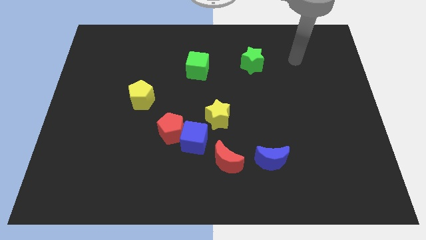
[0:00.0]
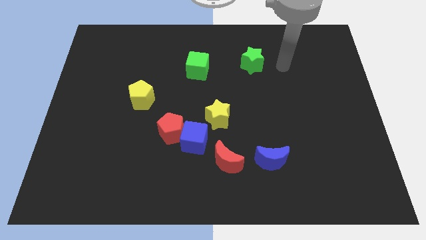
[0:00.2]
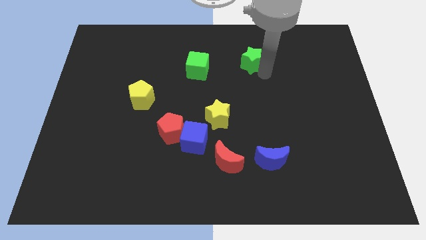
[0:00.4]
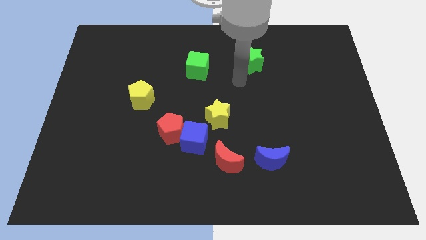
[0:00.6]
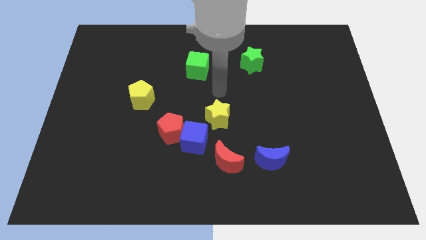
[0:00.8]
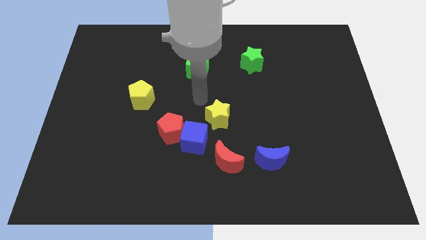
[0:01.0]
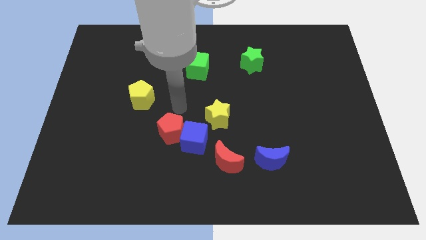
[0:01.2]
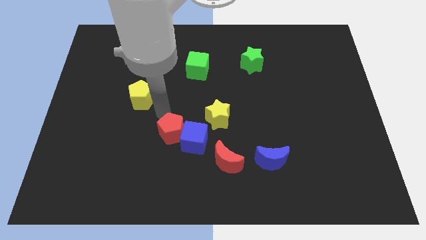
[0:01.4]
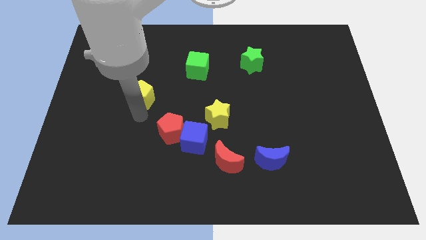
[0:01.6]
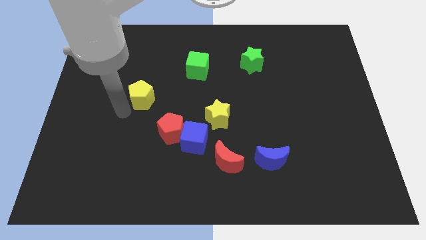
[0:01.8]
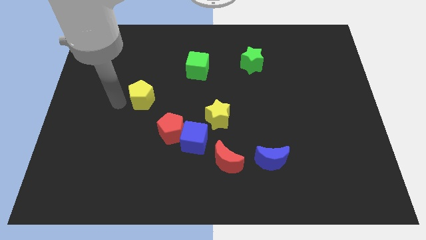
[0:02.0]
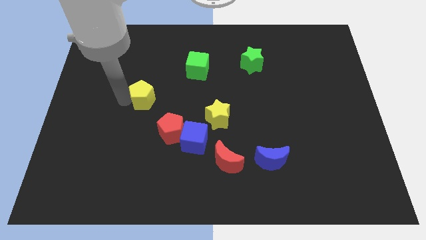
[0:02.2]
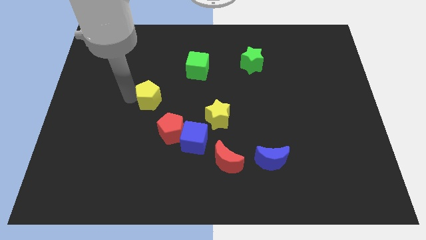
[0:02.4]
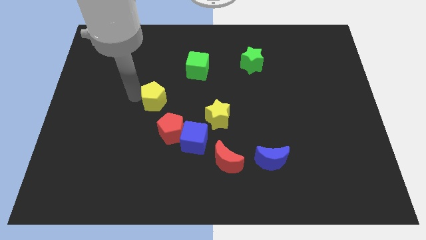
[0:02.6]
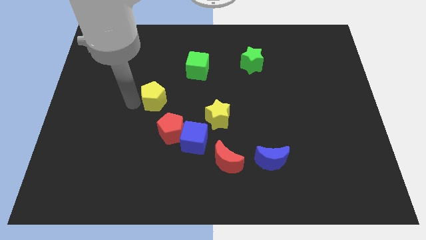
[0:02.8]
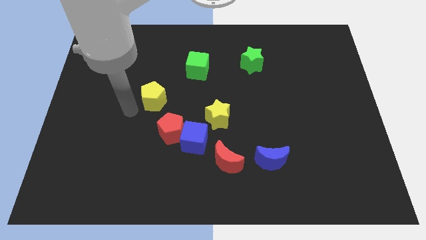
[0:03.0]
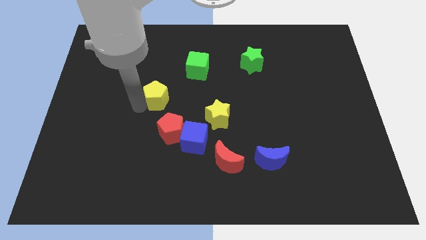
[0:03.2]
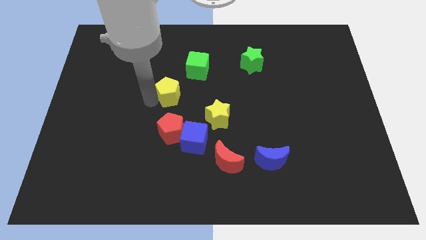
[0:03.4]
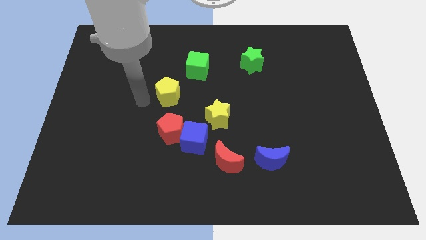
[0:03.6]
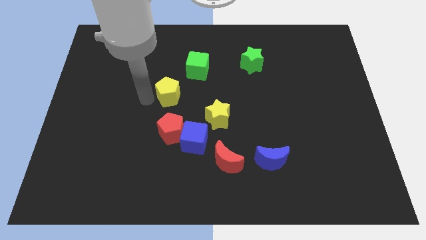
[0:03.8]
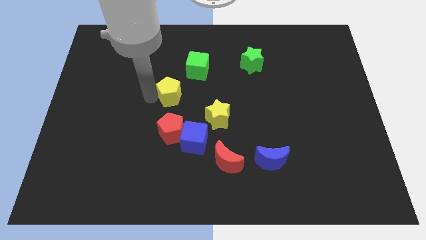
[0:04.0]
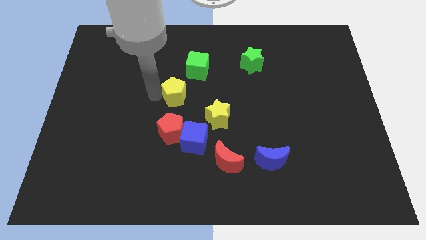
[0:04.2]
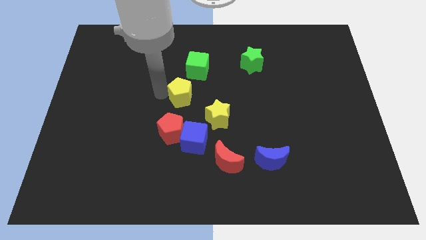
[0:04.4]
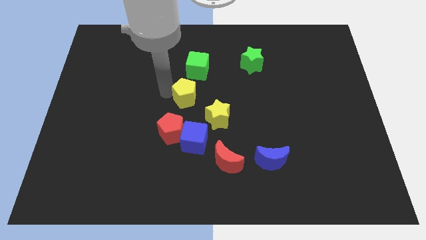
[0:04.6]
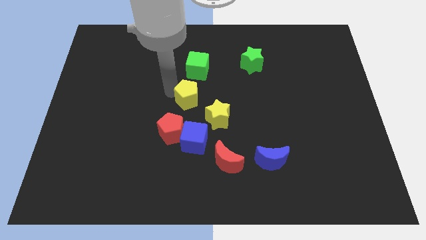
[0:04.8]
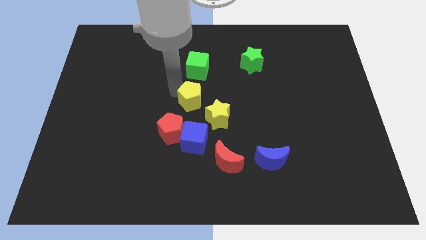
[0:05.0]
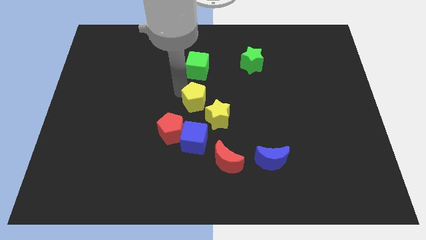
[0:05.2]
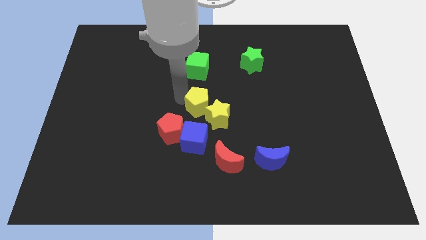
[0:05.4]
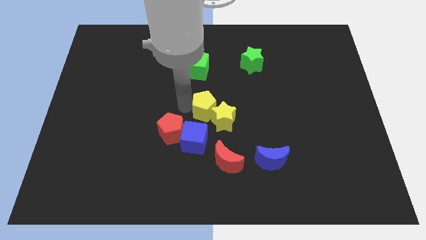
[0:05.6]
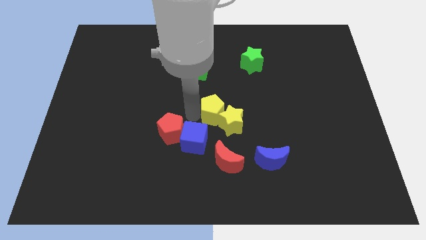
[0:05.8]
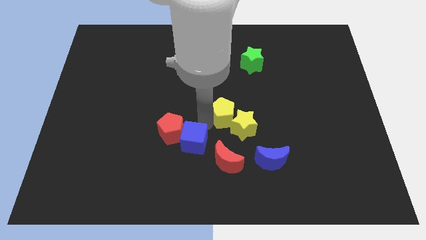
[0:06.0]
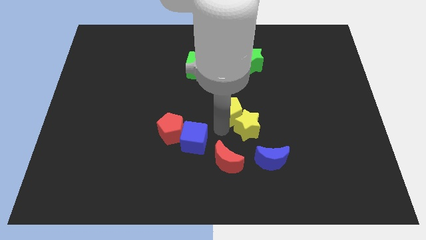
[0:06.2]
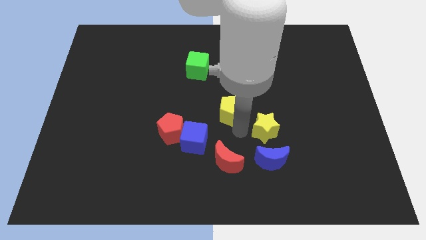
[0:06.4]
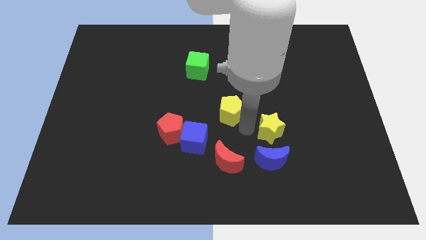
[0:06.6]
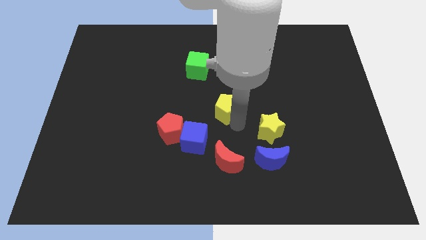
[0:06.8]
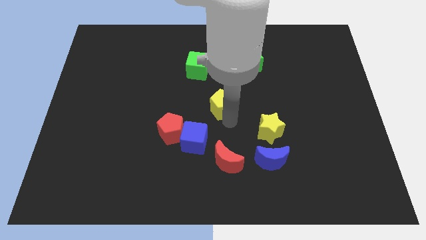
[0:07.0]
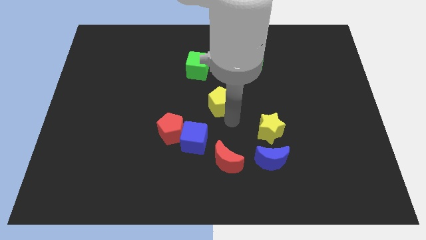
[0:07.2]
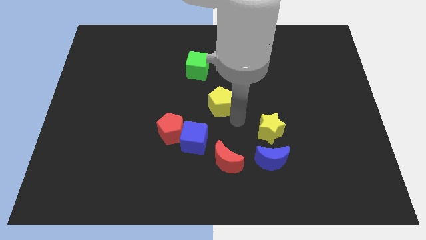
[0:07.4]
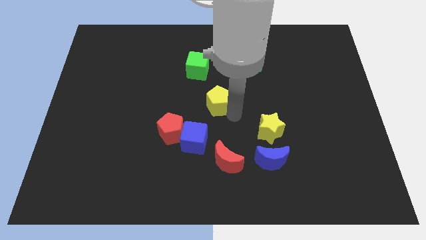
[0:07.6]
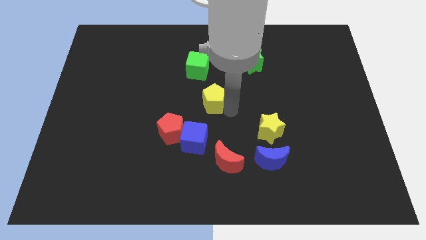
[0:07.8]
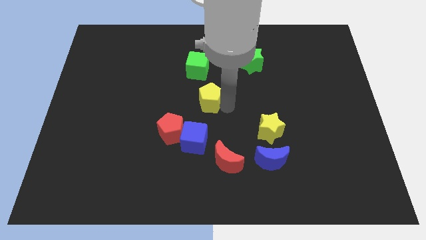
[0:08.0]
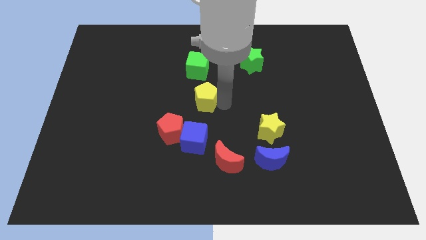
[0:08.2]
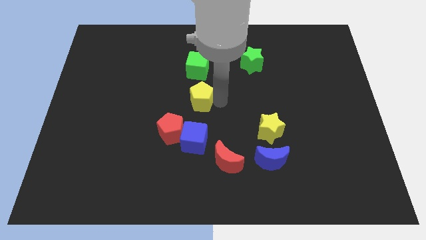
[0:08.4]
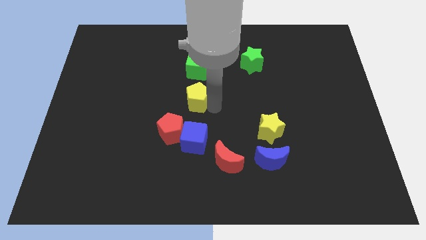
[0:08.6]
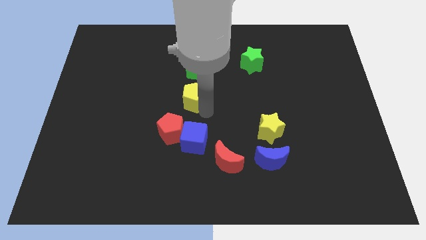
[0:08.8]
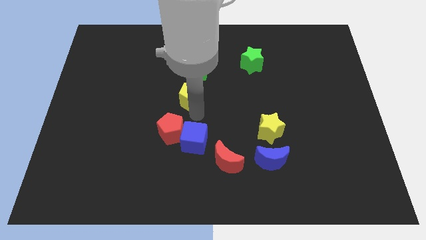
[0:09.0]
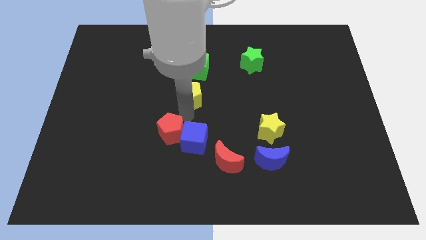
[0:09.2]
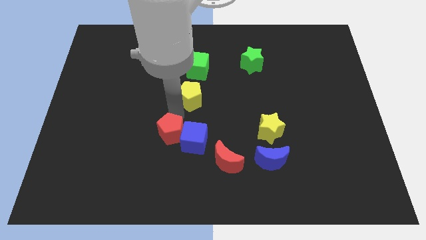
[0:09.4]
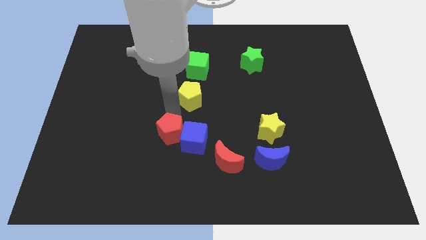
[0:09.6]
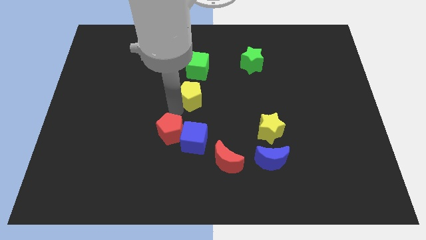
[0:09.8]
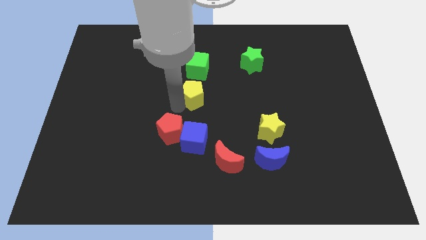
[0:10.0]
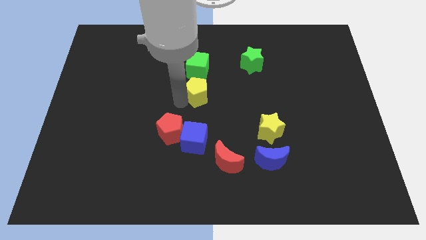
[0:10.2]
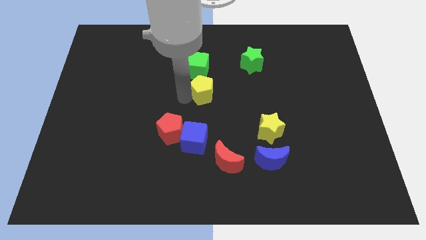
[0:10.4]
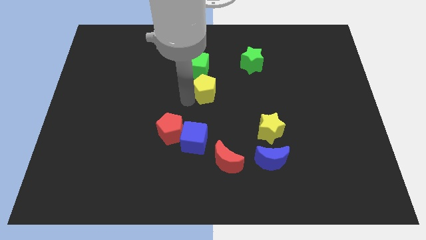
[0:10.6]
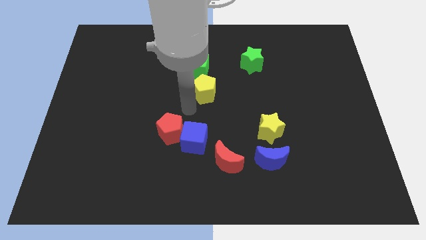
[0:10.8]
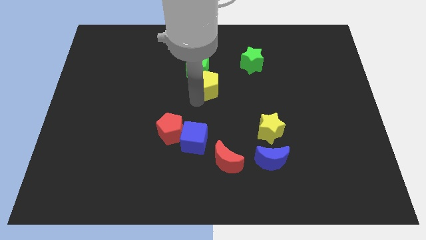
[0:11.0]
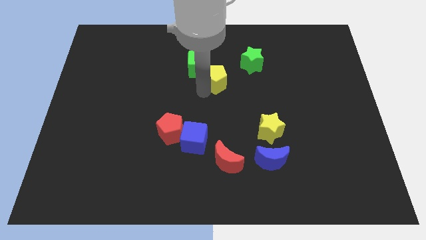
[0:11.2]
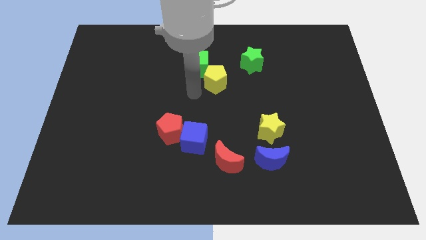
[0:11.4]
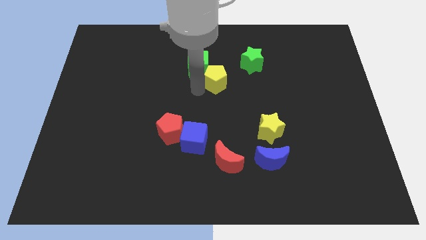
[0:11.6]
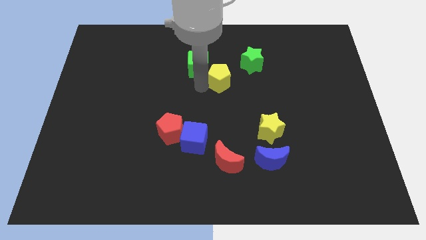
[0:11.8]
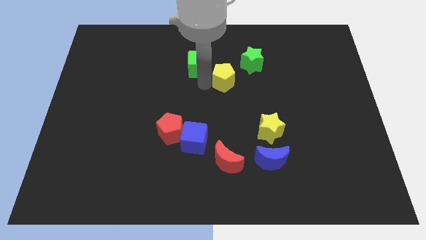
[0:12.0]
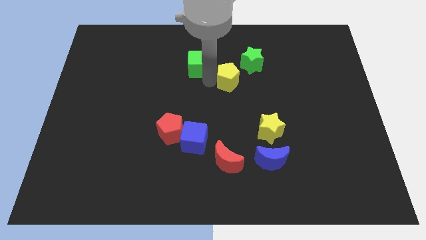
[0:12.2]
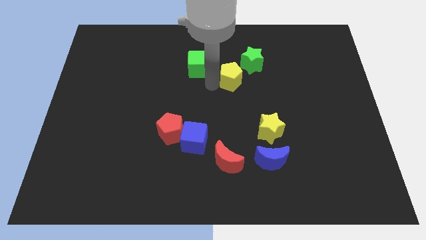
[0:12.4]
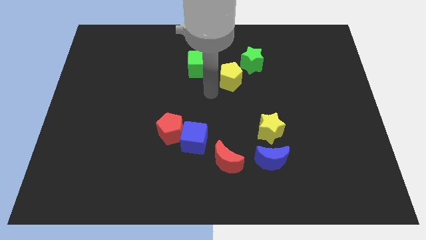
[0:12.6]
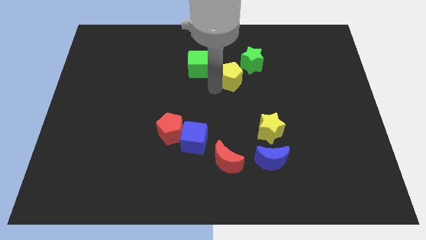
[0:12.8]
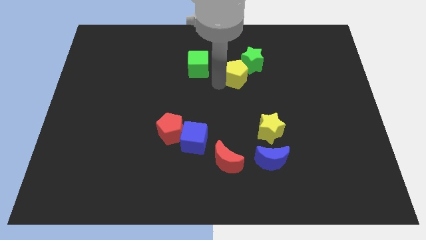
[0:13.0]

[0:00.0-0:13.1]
push the yellow pentagon to the green star
